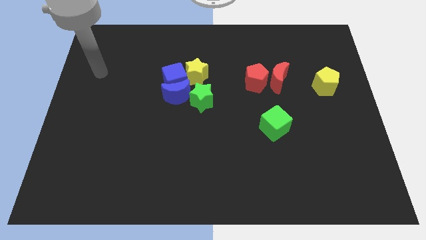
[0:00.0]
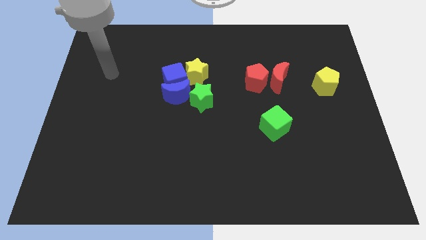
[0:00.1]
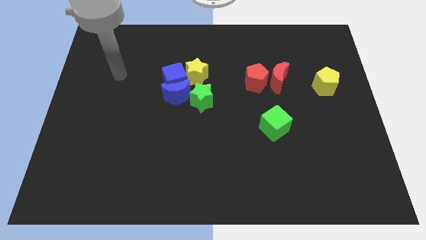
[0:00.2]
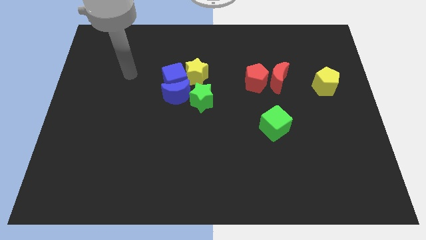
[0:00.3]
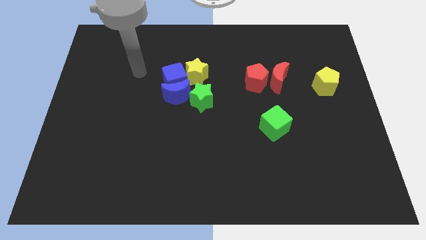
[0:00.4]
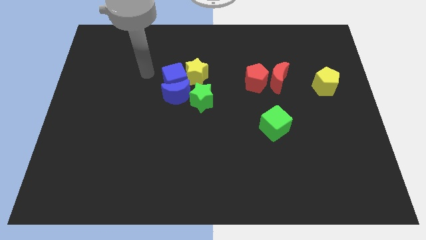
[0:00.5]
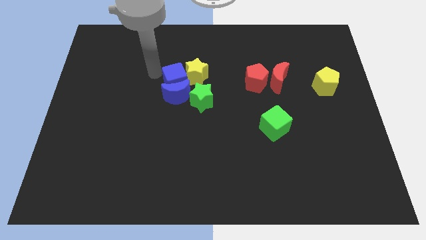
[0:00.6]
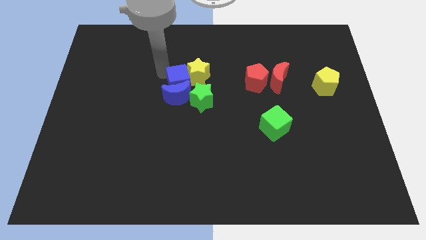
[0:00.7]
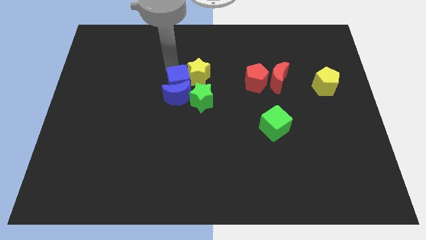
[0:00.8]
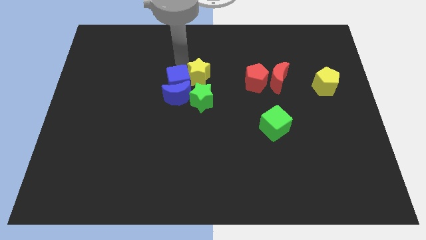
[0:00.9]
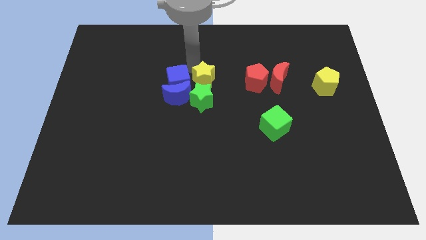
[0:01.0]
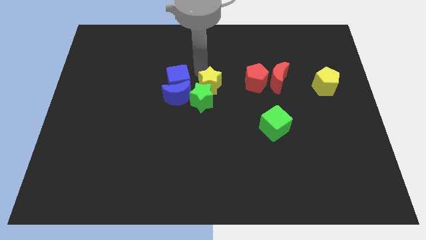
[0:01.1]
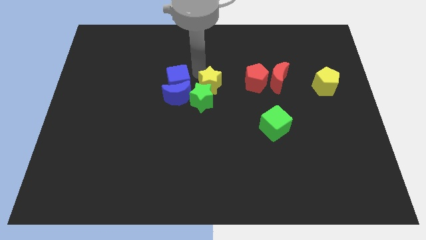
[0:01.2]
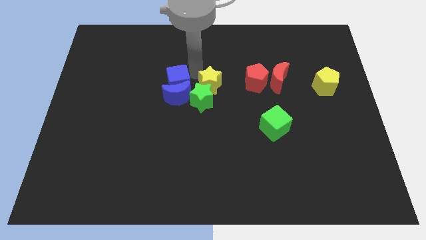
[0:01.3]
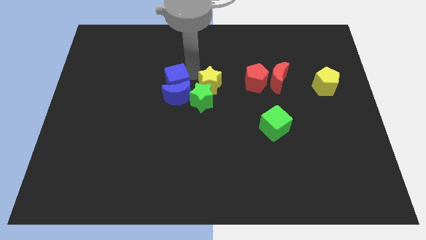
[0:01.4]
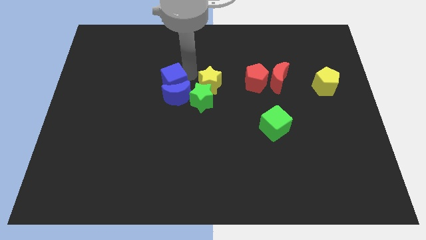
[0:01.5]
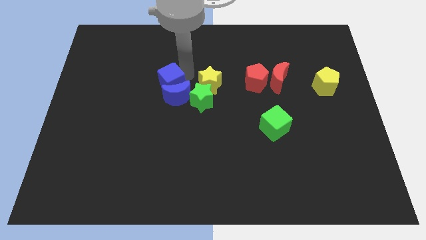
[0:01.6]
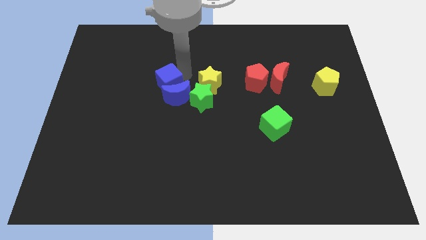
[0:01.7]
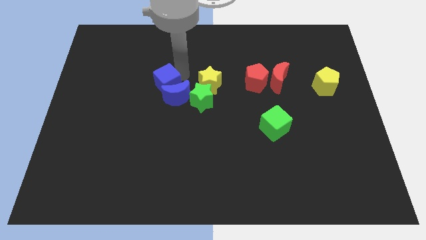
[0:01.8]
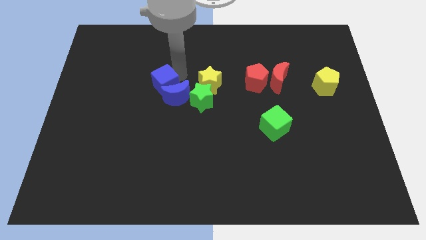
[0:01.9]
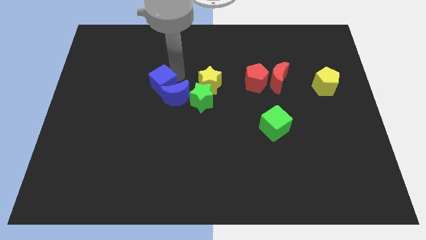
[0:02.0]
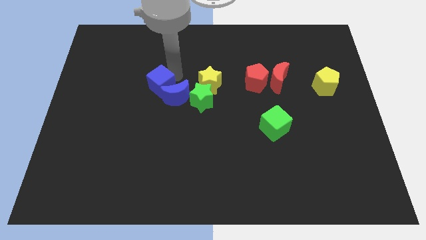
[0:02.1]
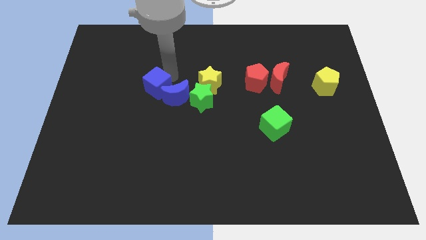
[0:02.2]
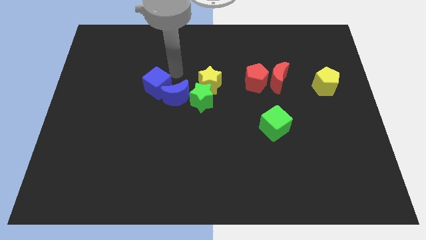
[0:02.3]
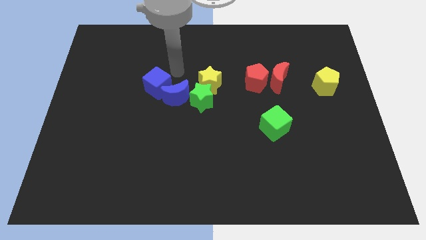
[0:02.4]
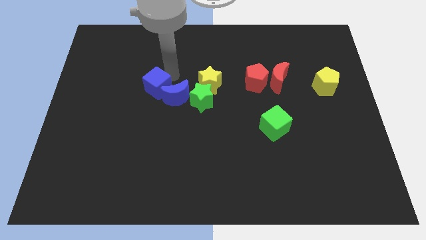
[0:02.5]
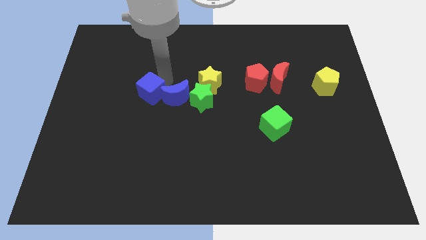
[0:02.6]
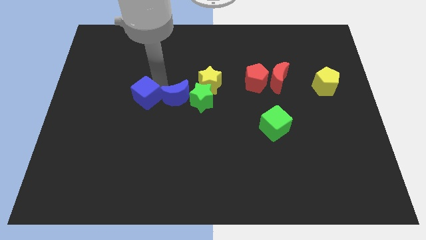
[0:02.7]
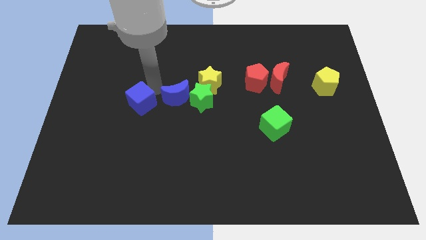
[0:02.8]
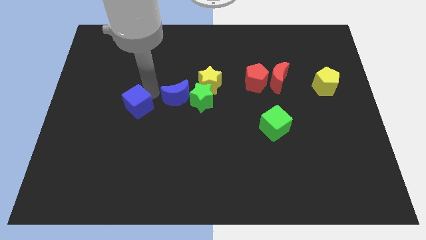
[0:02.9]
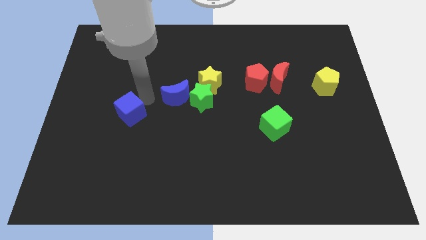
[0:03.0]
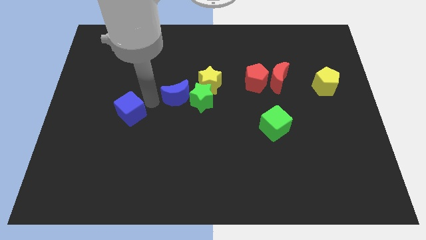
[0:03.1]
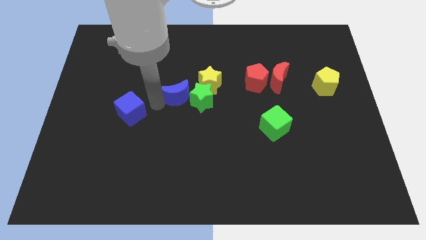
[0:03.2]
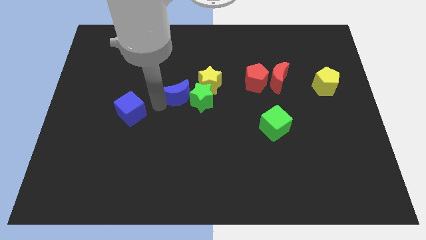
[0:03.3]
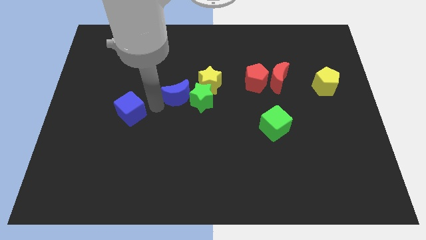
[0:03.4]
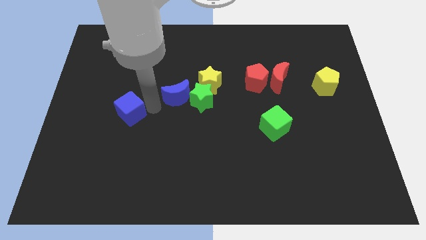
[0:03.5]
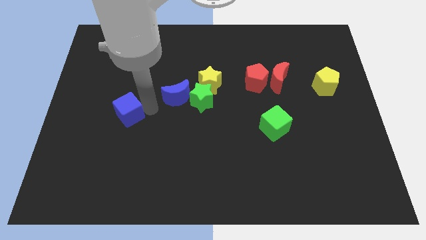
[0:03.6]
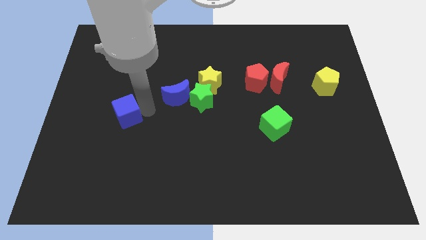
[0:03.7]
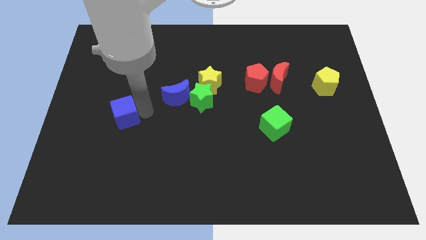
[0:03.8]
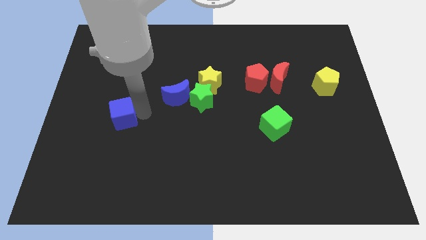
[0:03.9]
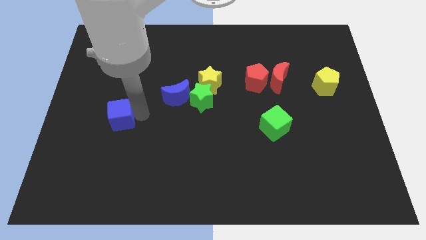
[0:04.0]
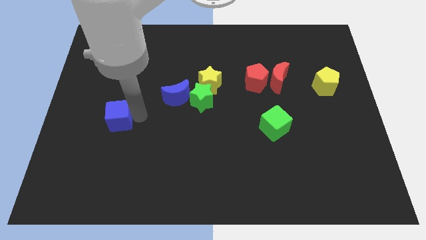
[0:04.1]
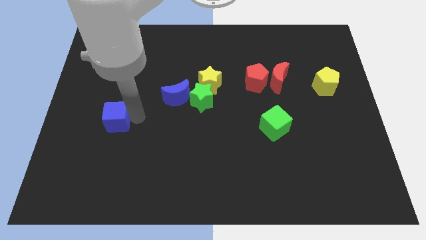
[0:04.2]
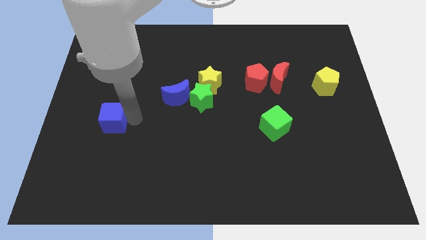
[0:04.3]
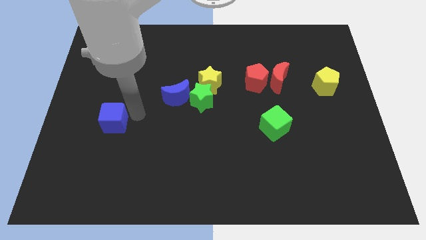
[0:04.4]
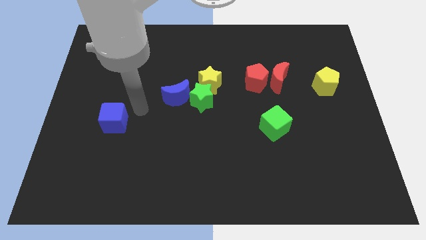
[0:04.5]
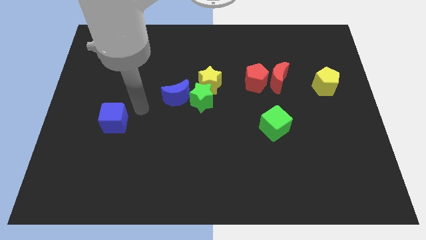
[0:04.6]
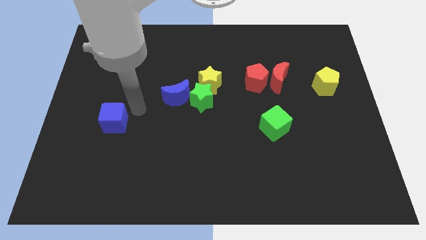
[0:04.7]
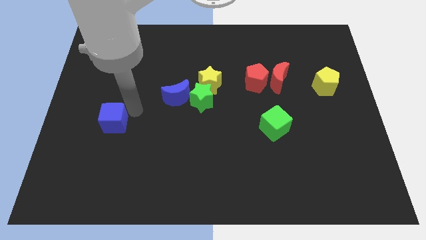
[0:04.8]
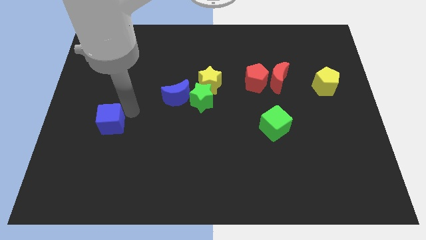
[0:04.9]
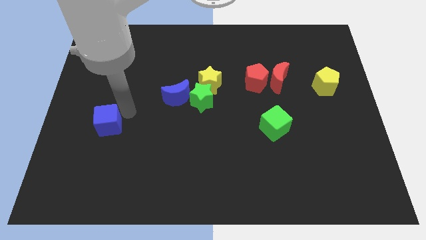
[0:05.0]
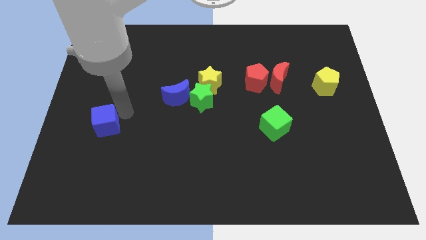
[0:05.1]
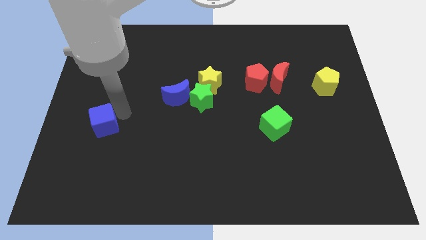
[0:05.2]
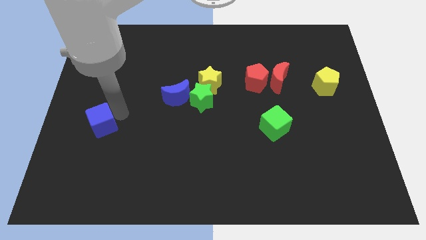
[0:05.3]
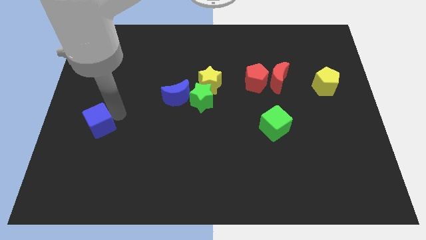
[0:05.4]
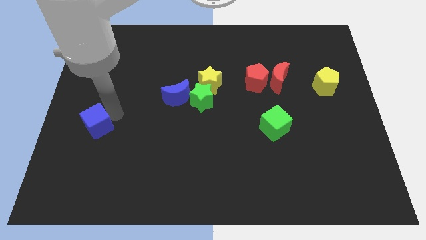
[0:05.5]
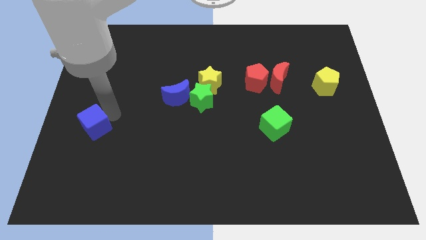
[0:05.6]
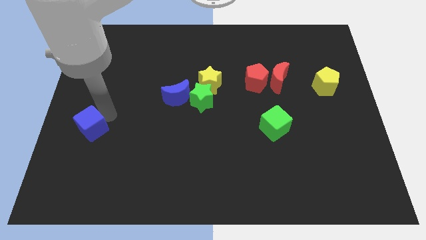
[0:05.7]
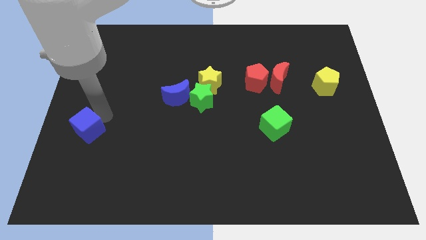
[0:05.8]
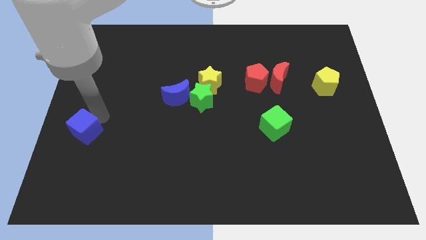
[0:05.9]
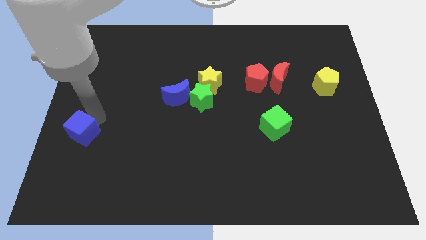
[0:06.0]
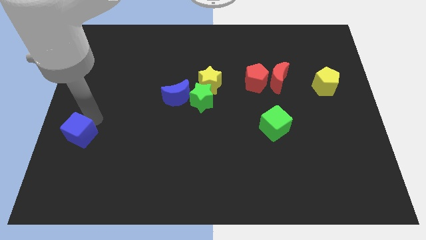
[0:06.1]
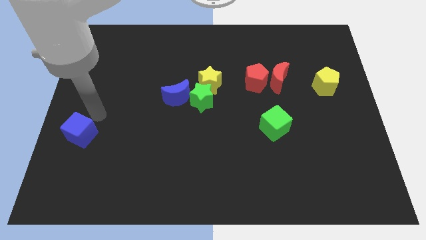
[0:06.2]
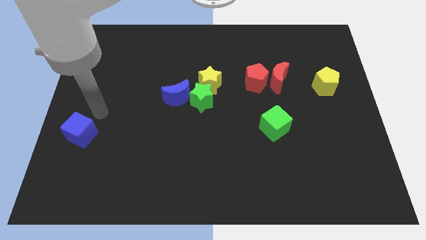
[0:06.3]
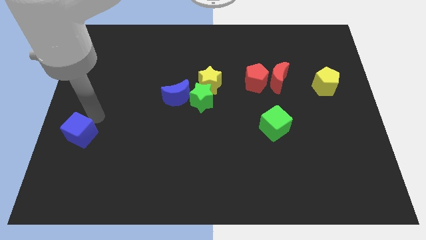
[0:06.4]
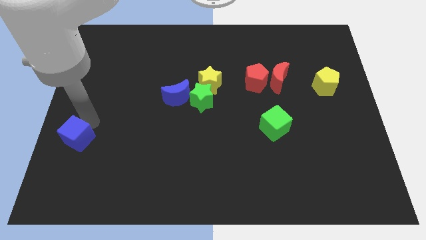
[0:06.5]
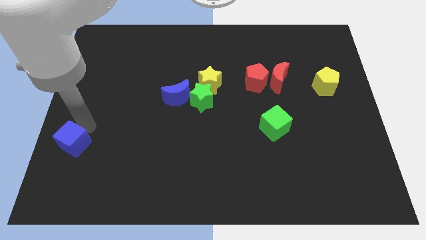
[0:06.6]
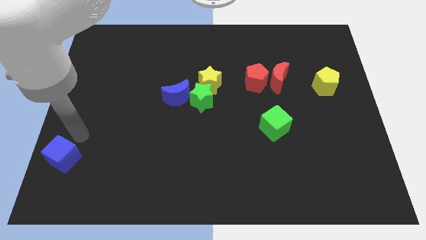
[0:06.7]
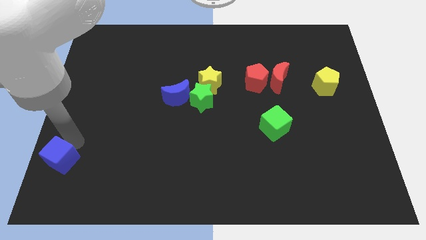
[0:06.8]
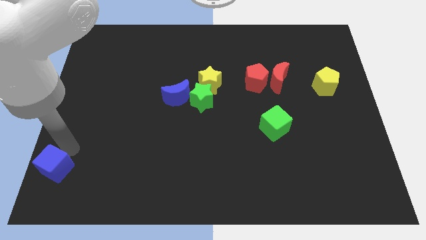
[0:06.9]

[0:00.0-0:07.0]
put the blue cube to the bottom left of the board
